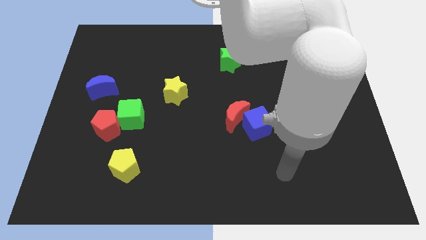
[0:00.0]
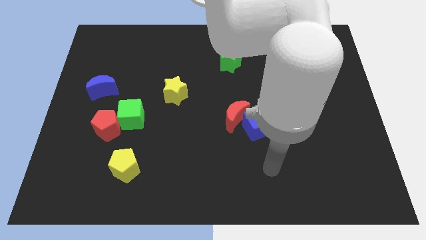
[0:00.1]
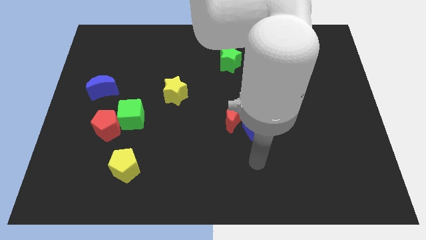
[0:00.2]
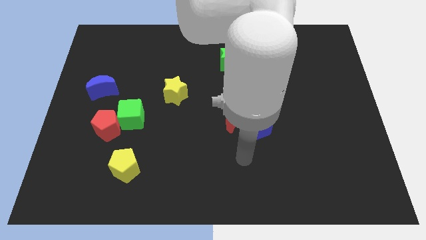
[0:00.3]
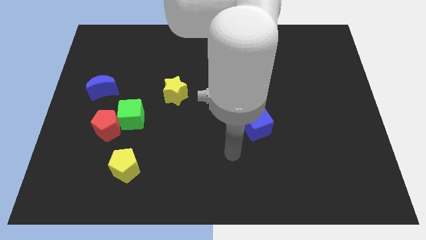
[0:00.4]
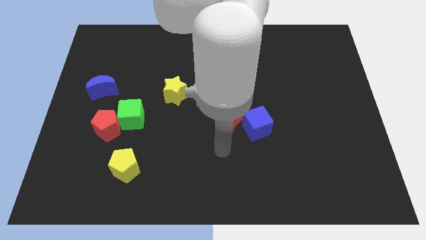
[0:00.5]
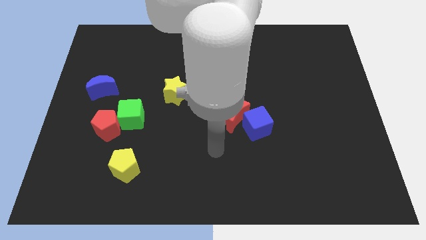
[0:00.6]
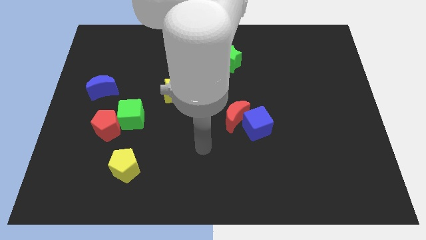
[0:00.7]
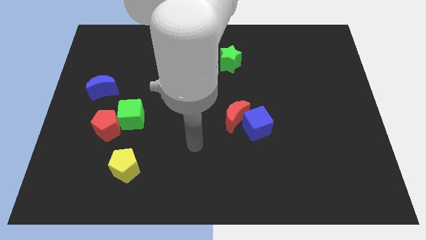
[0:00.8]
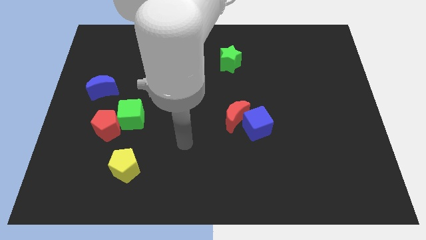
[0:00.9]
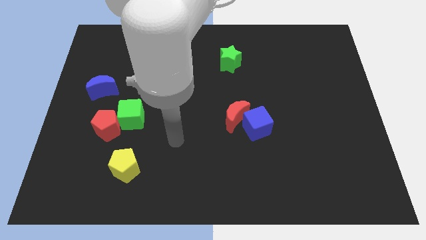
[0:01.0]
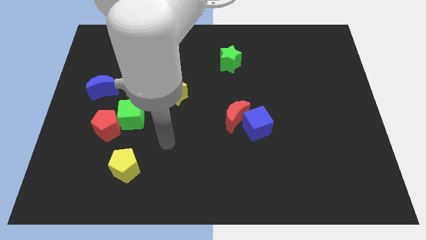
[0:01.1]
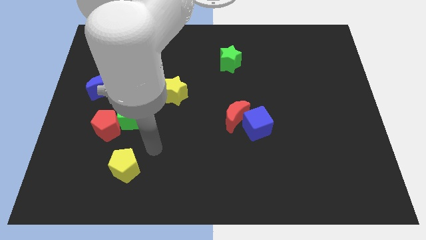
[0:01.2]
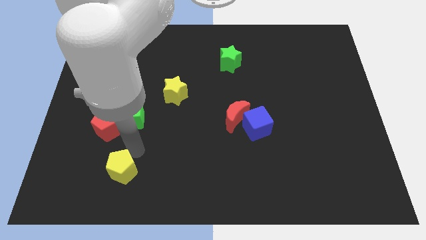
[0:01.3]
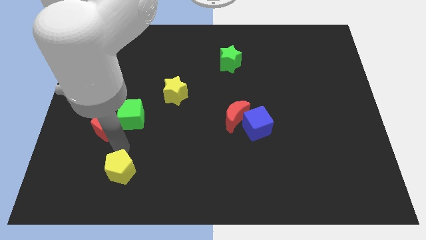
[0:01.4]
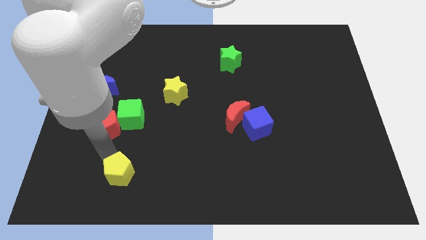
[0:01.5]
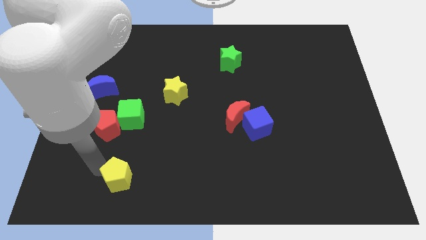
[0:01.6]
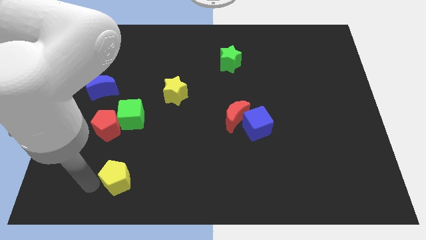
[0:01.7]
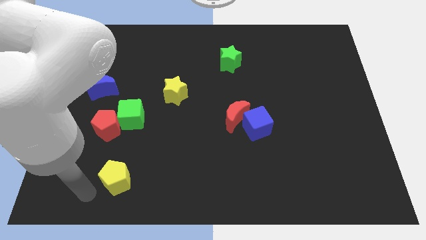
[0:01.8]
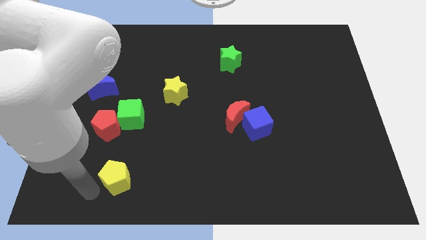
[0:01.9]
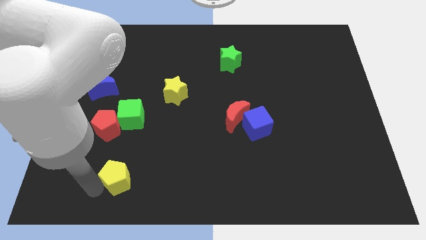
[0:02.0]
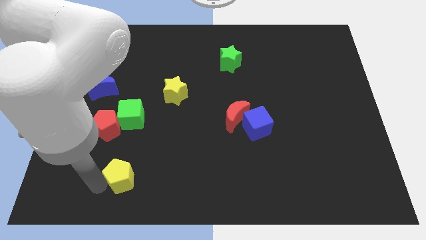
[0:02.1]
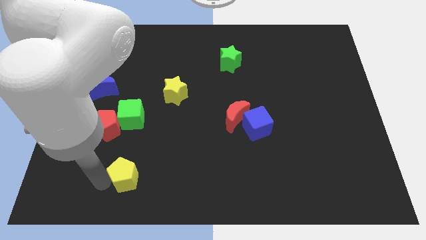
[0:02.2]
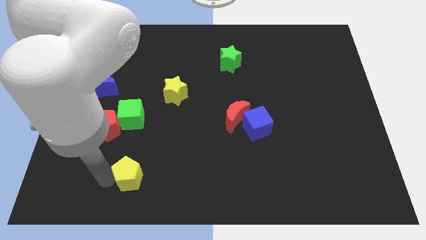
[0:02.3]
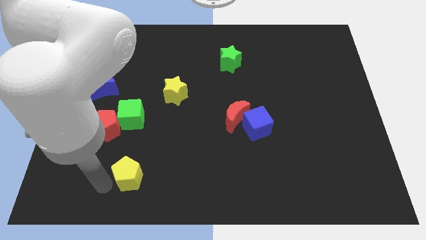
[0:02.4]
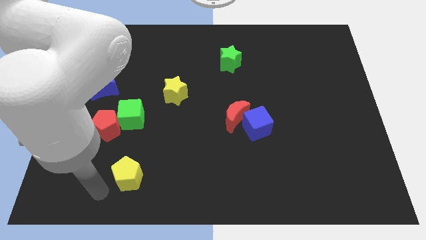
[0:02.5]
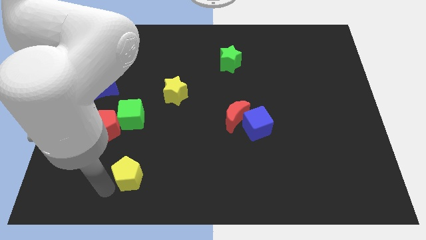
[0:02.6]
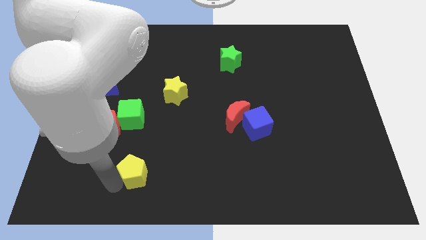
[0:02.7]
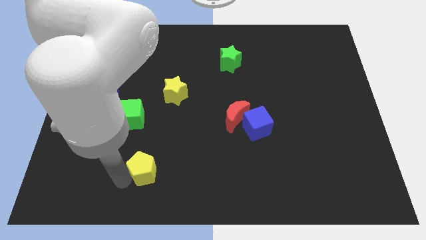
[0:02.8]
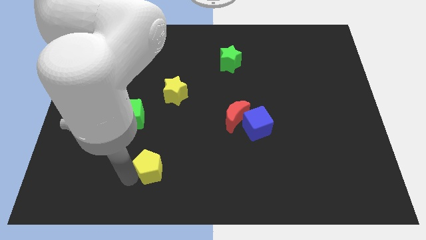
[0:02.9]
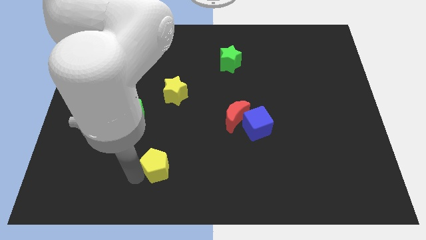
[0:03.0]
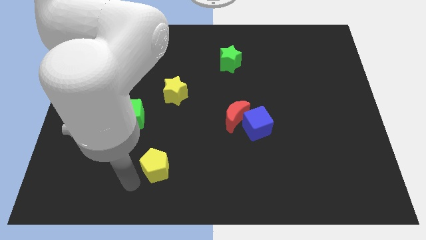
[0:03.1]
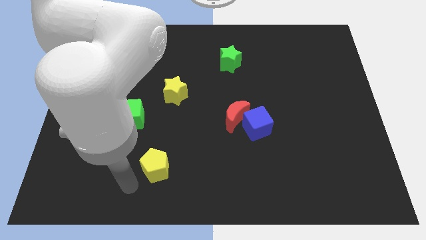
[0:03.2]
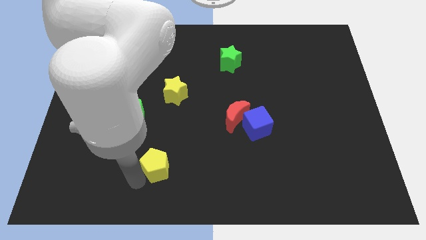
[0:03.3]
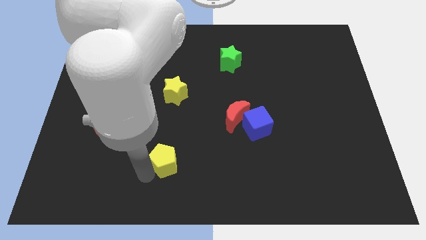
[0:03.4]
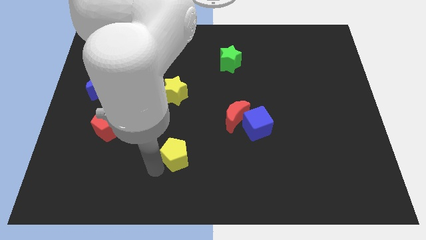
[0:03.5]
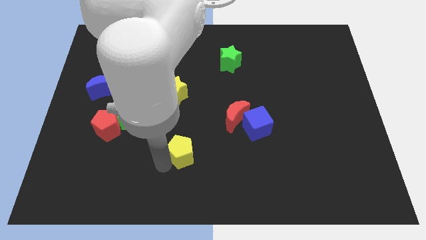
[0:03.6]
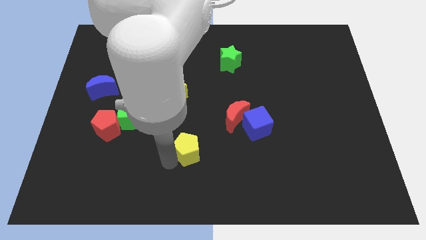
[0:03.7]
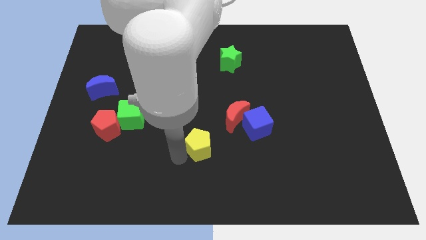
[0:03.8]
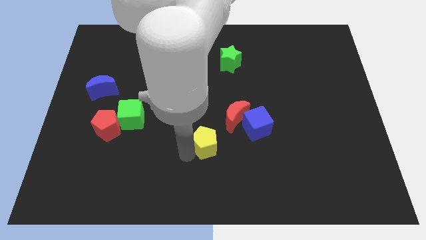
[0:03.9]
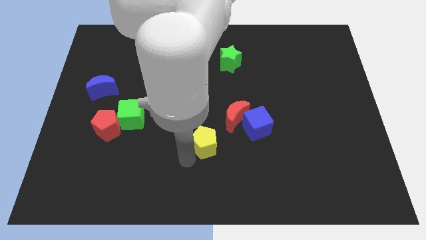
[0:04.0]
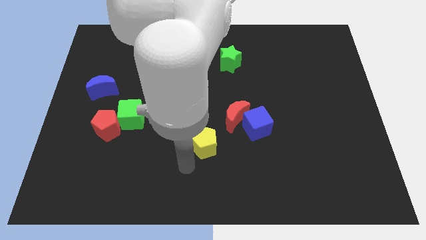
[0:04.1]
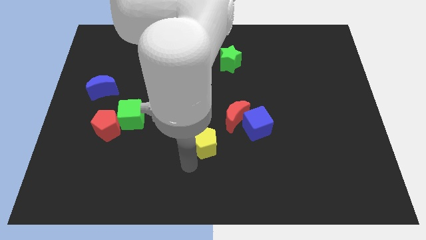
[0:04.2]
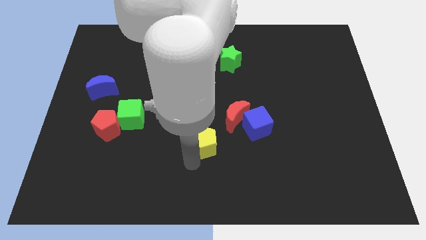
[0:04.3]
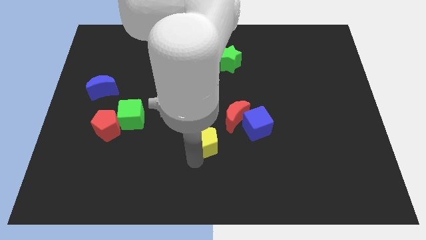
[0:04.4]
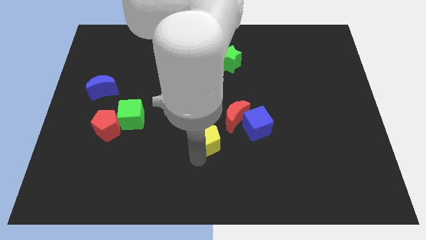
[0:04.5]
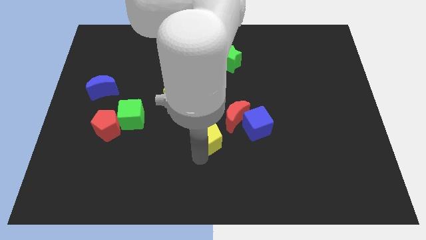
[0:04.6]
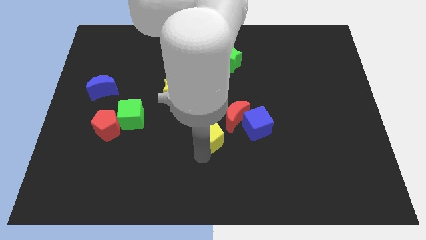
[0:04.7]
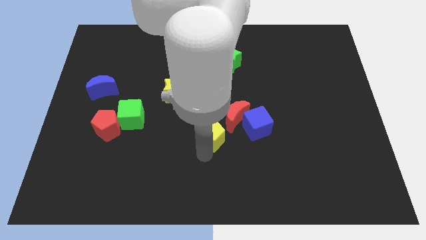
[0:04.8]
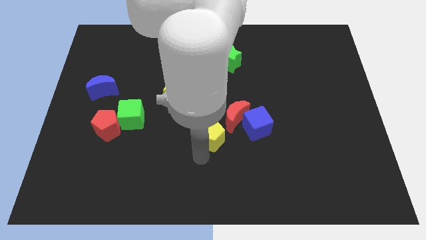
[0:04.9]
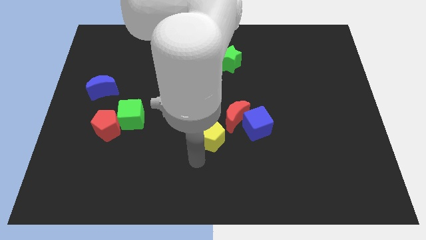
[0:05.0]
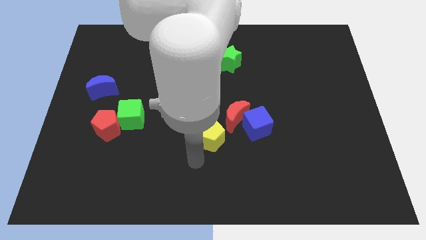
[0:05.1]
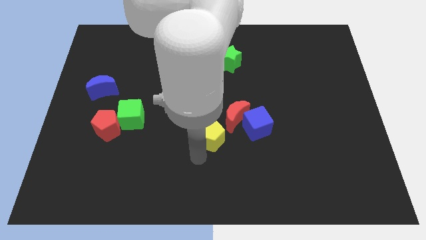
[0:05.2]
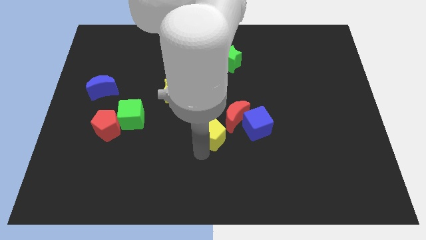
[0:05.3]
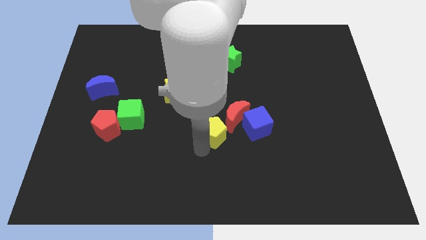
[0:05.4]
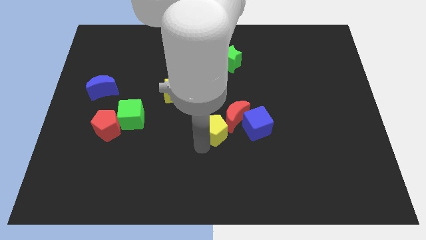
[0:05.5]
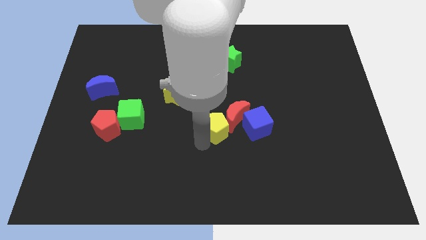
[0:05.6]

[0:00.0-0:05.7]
put the yellow pentagon towards the red moon

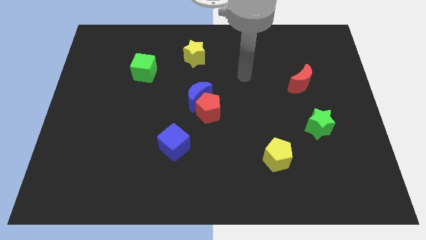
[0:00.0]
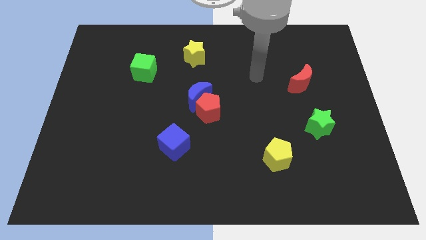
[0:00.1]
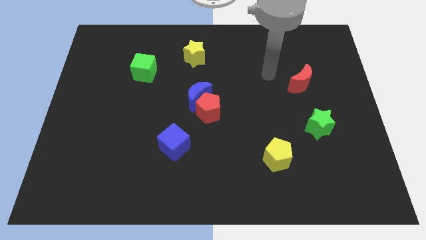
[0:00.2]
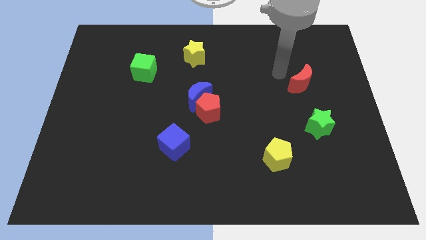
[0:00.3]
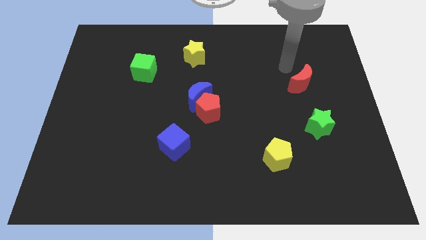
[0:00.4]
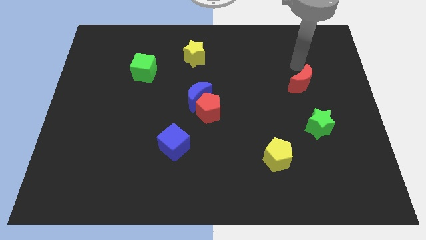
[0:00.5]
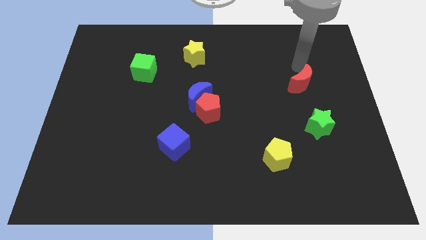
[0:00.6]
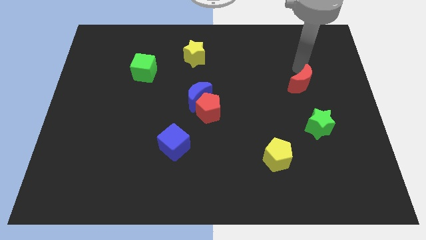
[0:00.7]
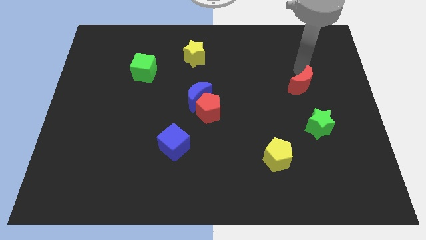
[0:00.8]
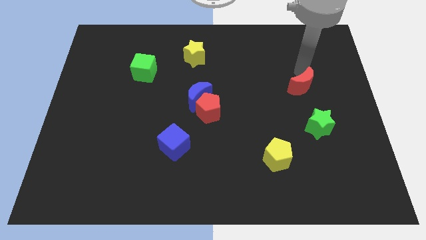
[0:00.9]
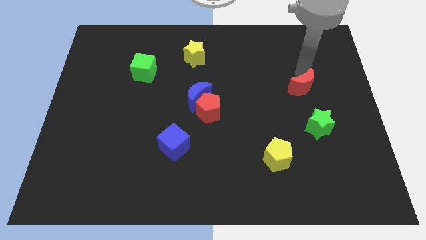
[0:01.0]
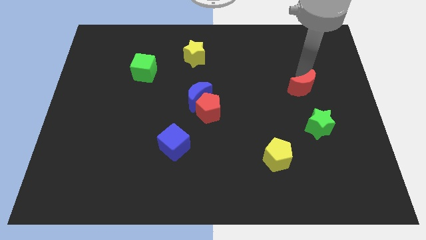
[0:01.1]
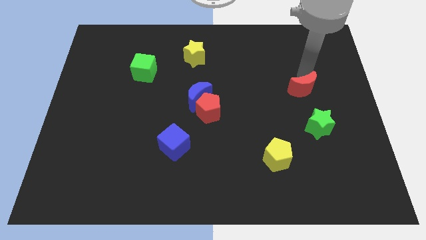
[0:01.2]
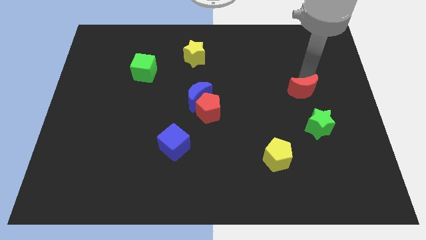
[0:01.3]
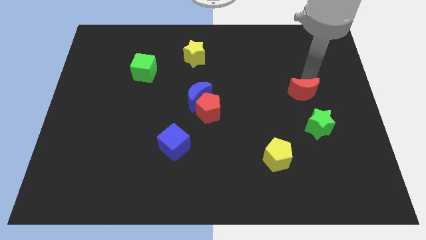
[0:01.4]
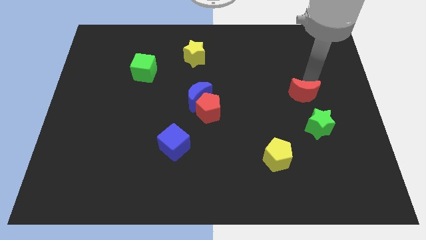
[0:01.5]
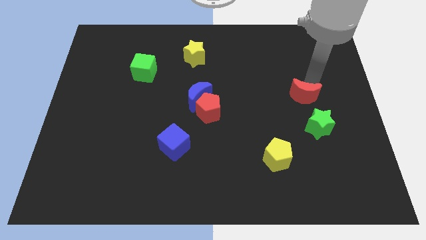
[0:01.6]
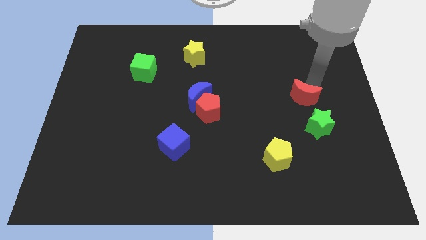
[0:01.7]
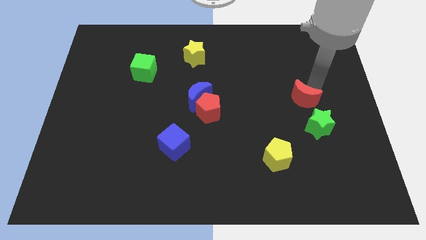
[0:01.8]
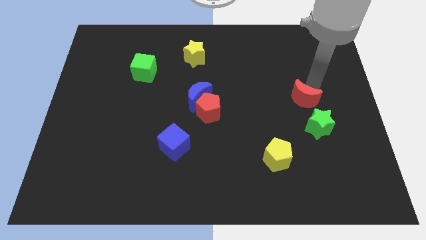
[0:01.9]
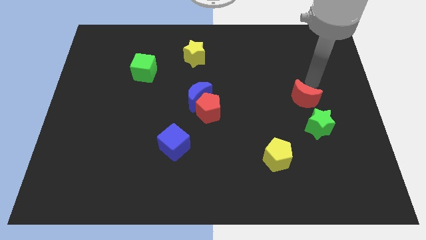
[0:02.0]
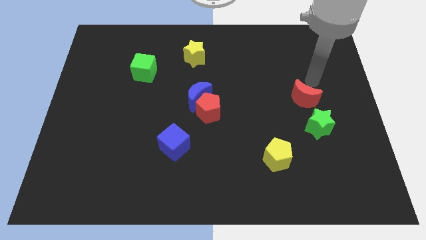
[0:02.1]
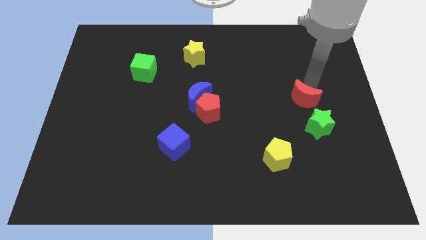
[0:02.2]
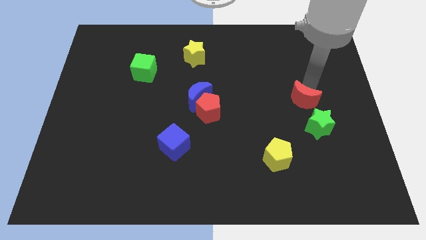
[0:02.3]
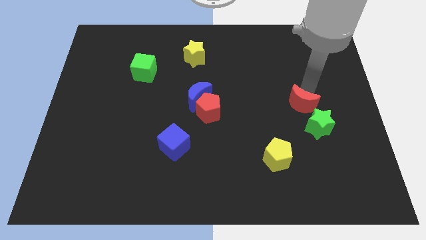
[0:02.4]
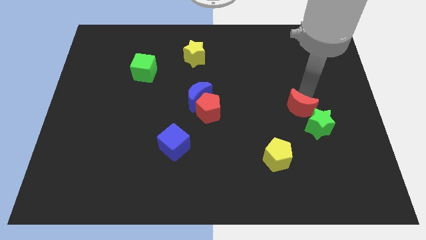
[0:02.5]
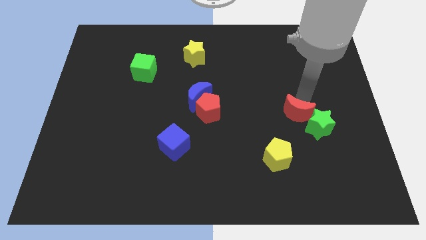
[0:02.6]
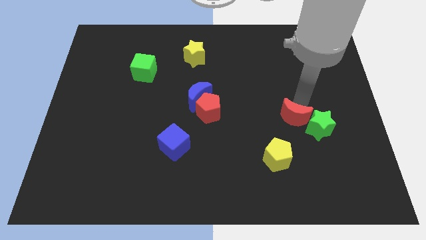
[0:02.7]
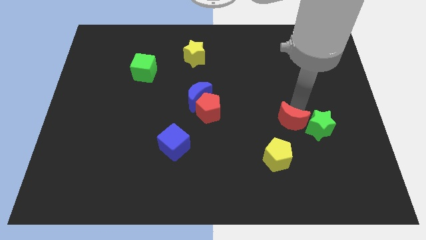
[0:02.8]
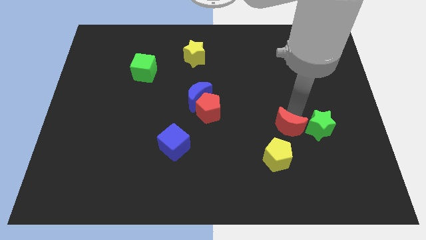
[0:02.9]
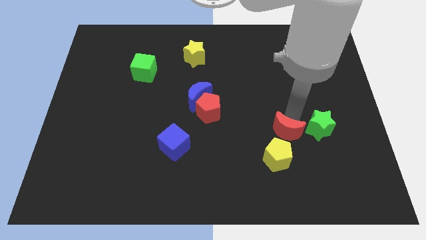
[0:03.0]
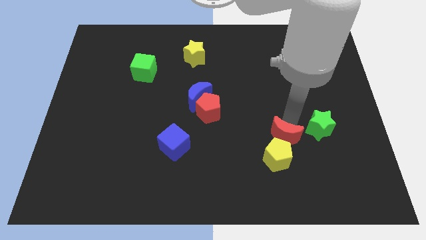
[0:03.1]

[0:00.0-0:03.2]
move the red moon close to the yellow pentagon
